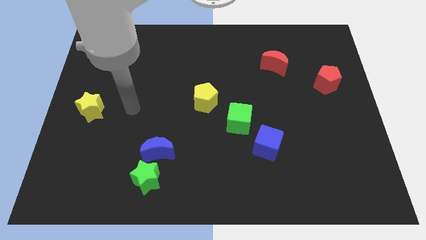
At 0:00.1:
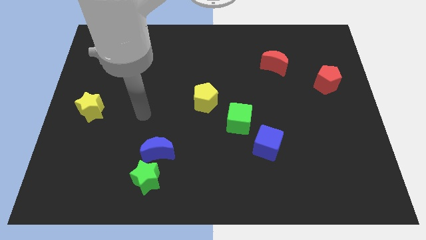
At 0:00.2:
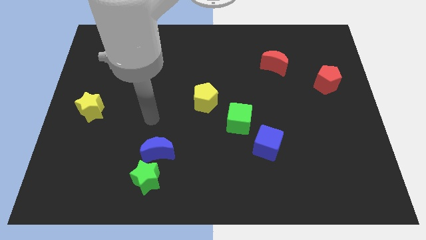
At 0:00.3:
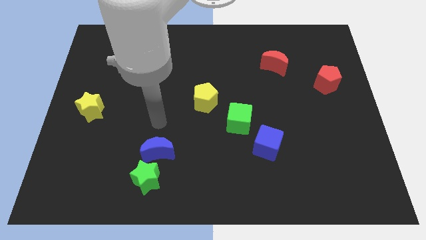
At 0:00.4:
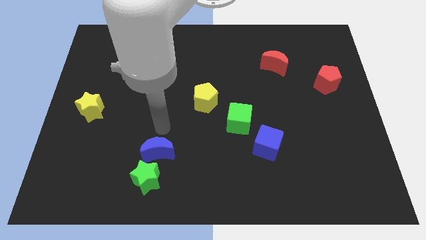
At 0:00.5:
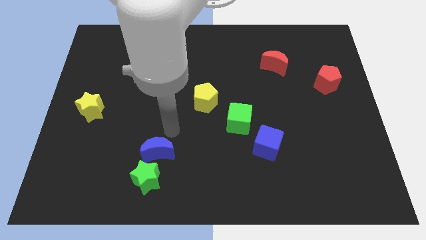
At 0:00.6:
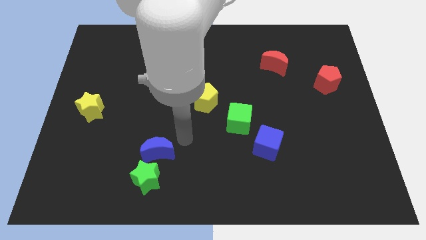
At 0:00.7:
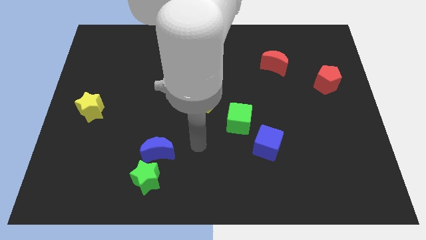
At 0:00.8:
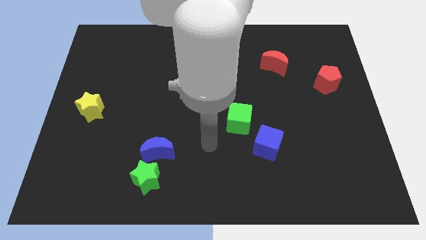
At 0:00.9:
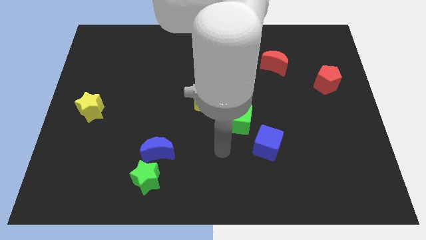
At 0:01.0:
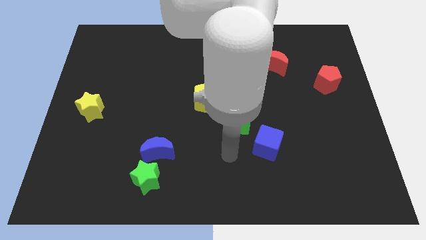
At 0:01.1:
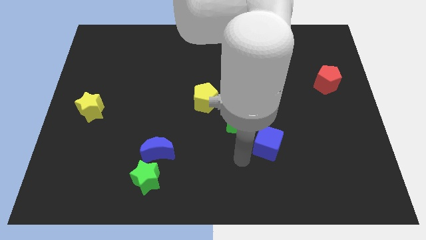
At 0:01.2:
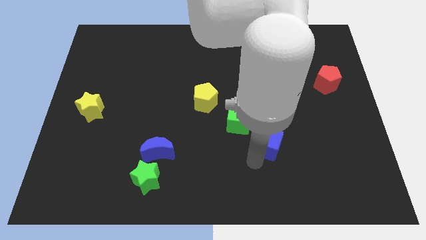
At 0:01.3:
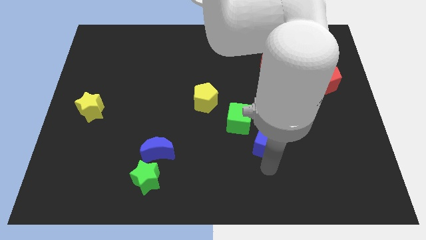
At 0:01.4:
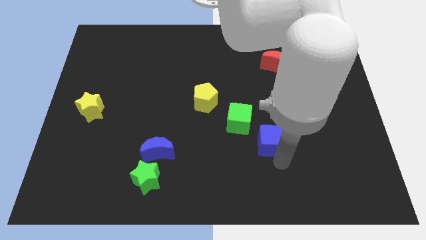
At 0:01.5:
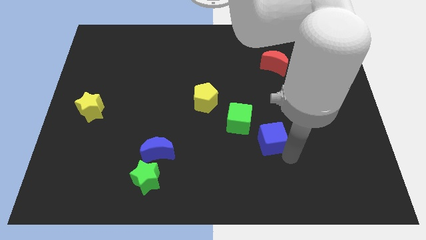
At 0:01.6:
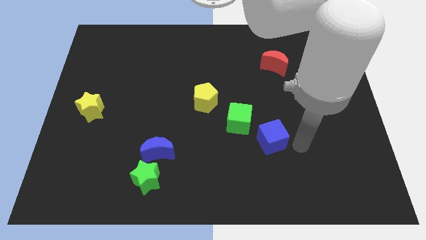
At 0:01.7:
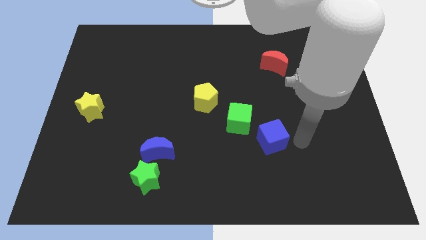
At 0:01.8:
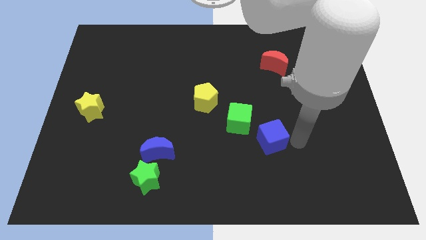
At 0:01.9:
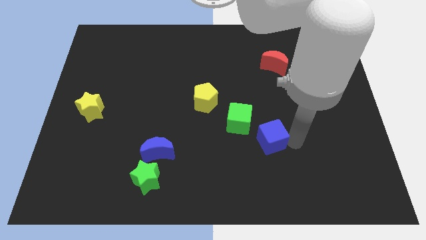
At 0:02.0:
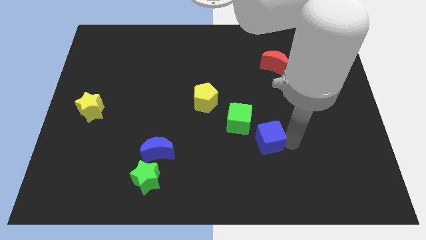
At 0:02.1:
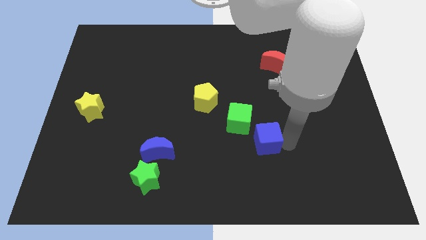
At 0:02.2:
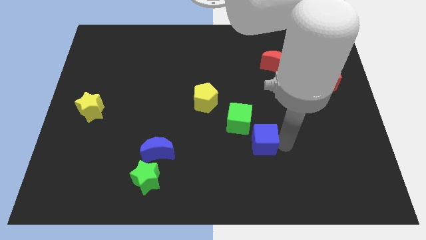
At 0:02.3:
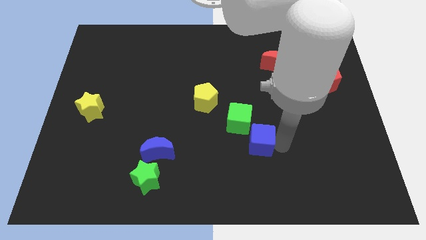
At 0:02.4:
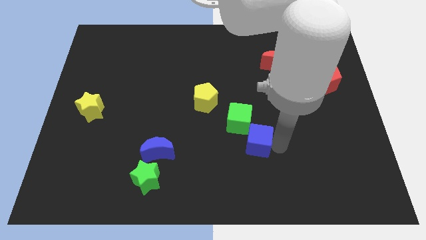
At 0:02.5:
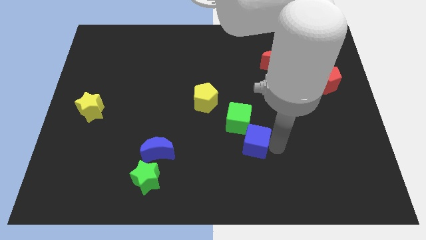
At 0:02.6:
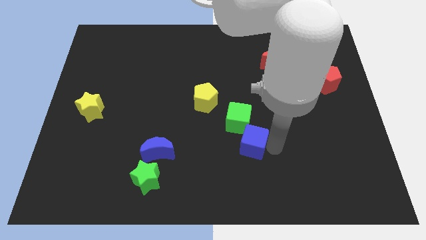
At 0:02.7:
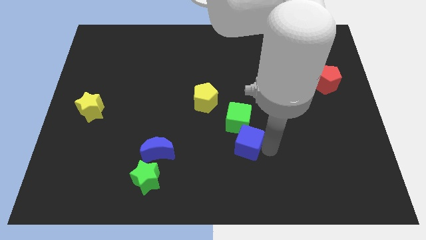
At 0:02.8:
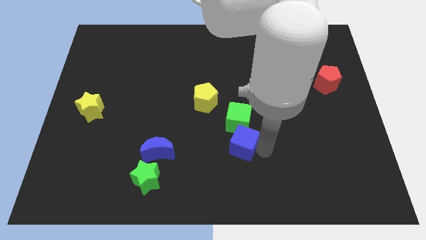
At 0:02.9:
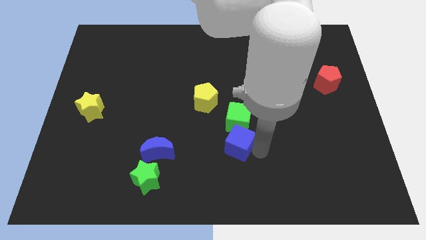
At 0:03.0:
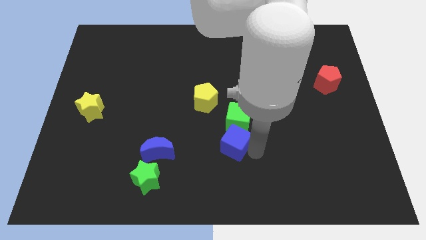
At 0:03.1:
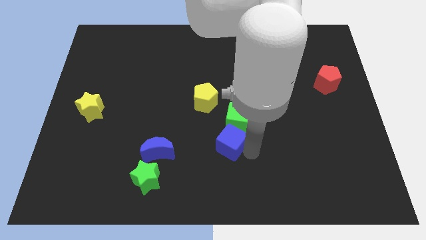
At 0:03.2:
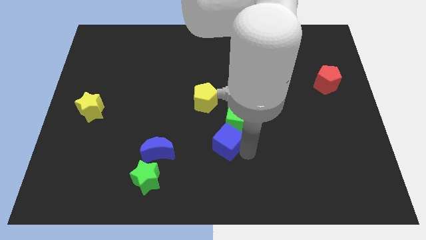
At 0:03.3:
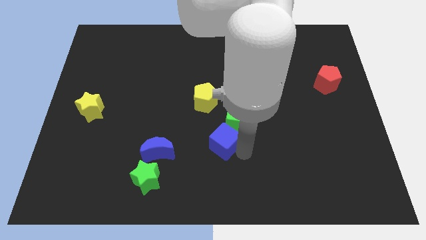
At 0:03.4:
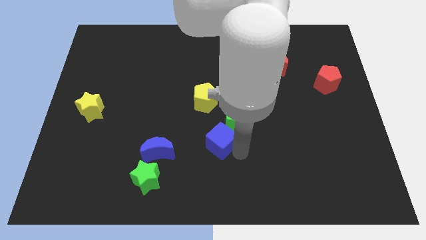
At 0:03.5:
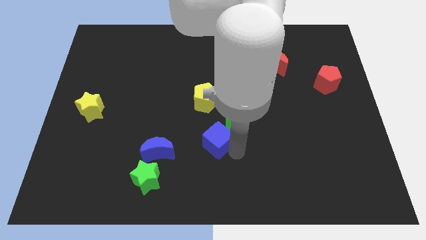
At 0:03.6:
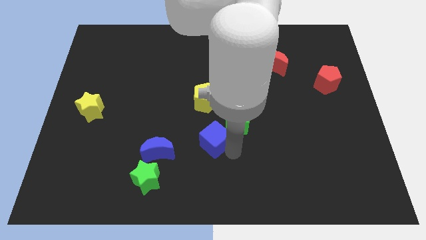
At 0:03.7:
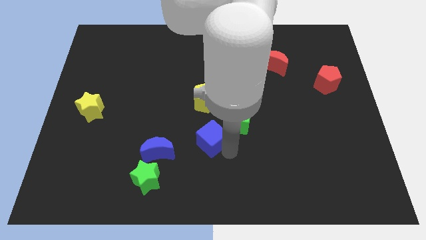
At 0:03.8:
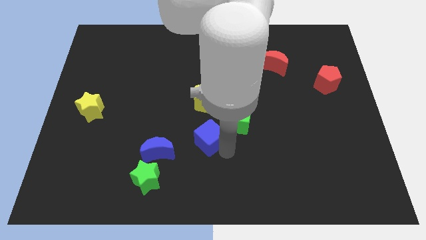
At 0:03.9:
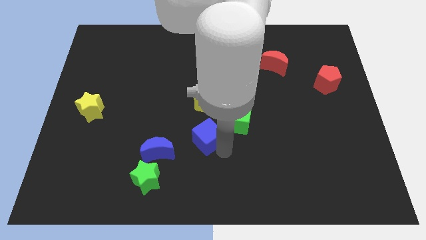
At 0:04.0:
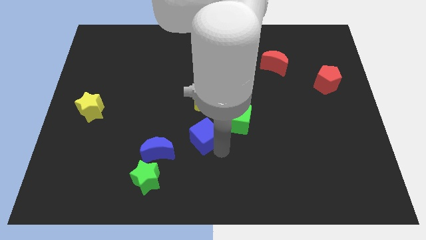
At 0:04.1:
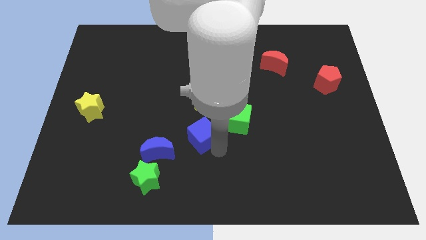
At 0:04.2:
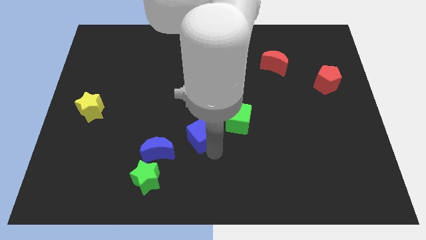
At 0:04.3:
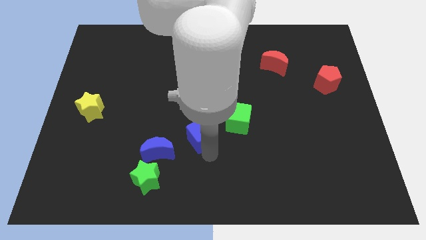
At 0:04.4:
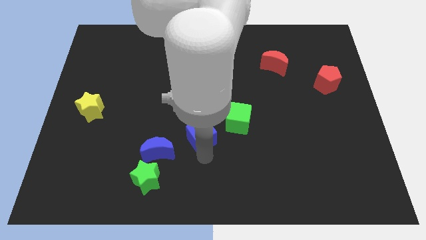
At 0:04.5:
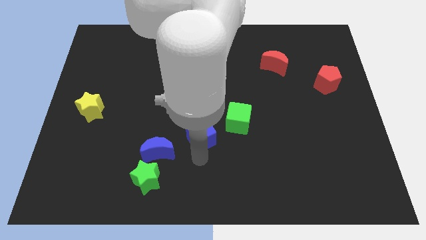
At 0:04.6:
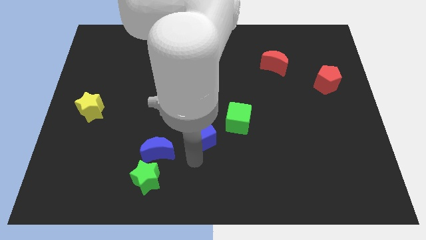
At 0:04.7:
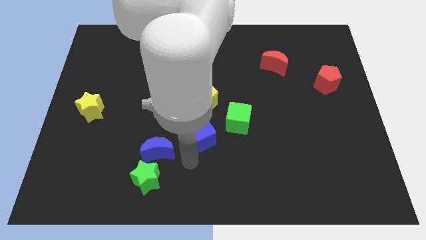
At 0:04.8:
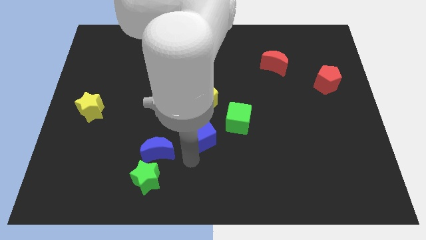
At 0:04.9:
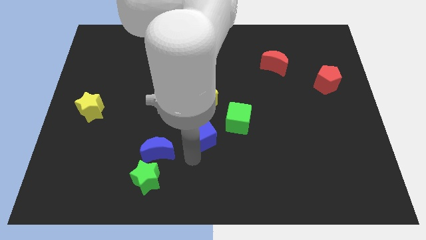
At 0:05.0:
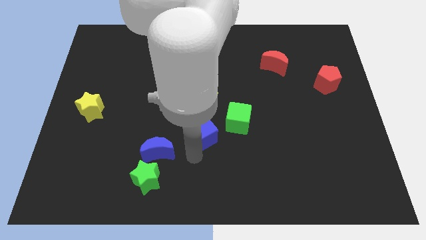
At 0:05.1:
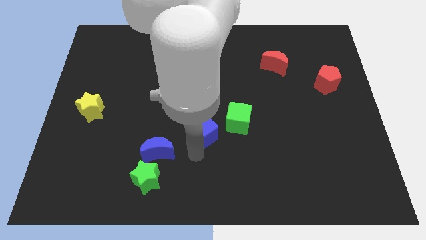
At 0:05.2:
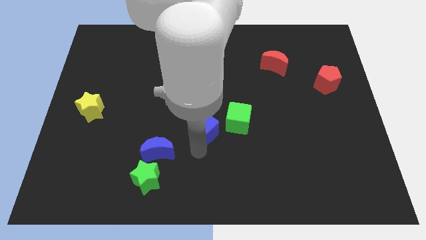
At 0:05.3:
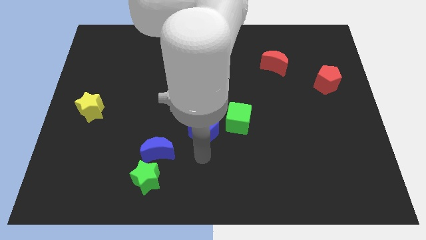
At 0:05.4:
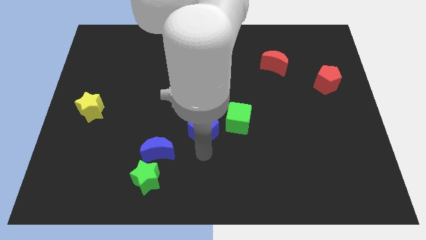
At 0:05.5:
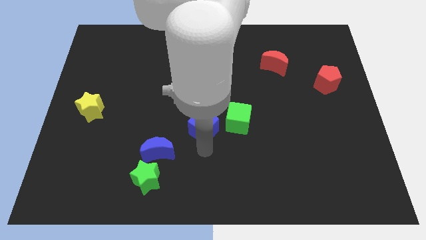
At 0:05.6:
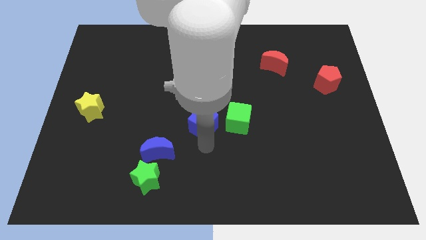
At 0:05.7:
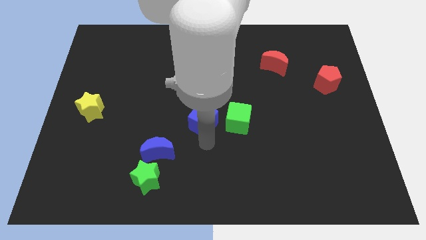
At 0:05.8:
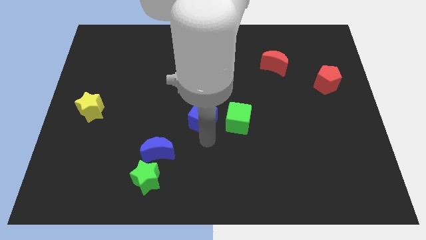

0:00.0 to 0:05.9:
push the blue cube close to the yellow pentagon
